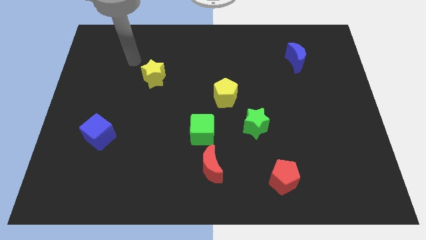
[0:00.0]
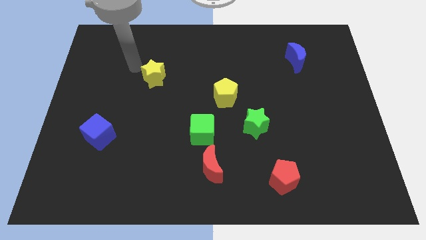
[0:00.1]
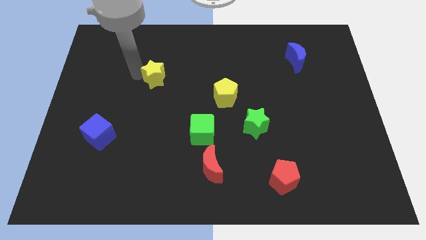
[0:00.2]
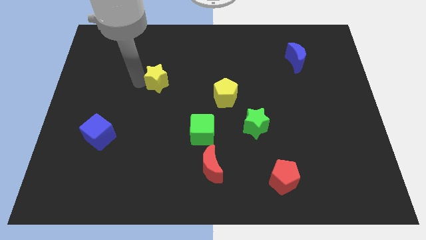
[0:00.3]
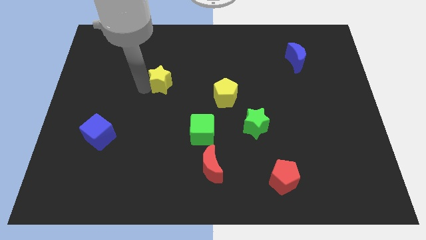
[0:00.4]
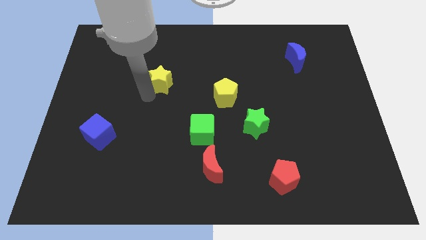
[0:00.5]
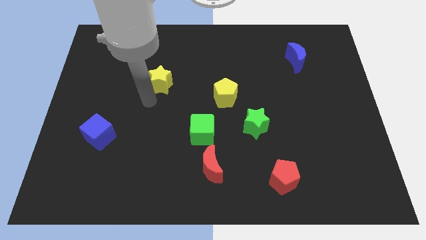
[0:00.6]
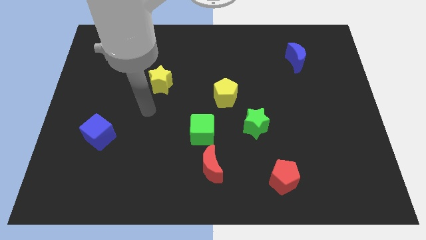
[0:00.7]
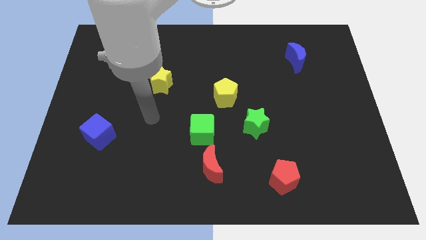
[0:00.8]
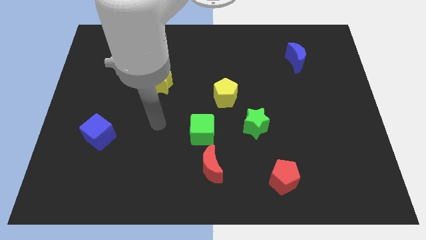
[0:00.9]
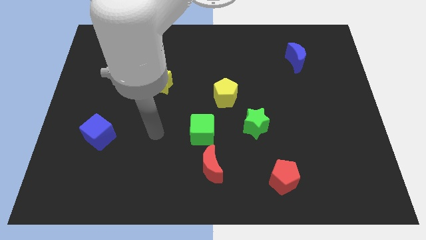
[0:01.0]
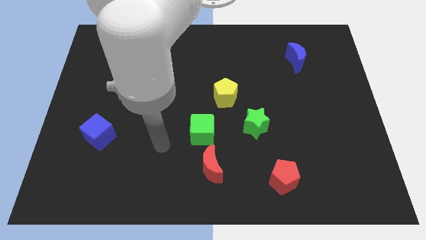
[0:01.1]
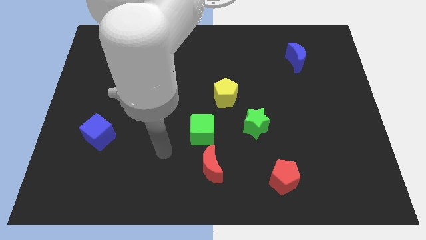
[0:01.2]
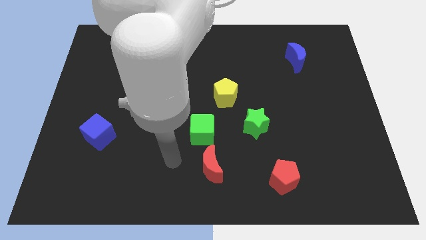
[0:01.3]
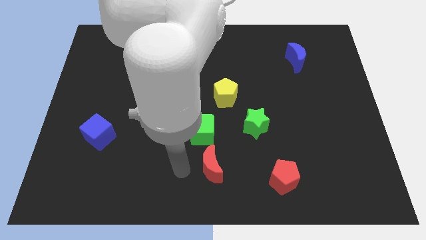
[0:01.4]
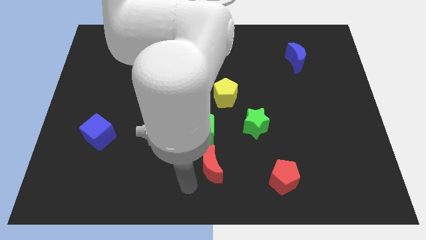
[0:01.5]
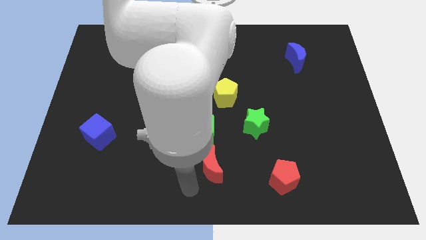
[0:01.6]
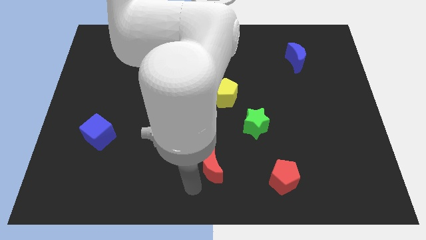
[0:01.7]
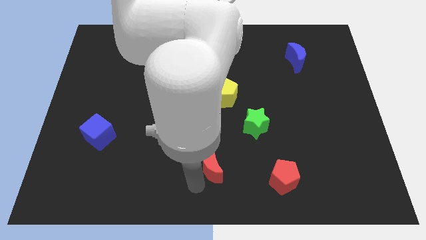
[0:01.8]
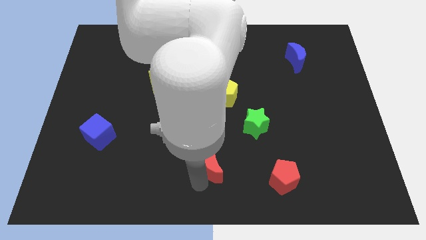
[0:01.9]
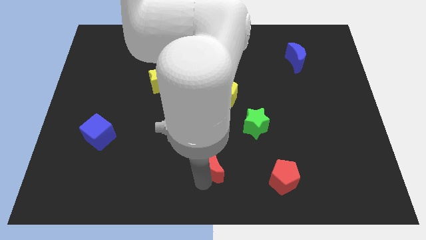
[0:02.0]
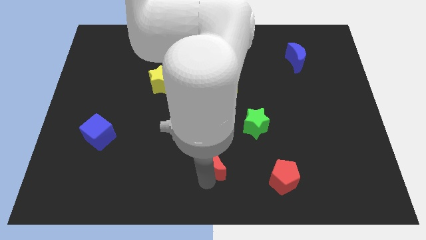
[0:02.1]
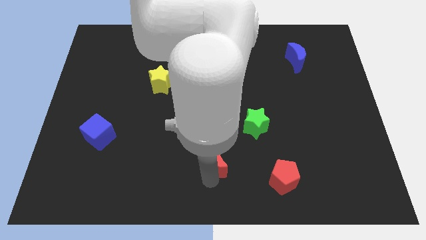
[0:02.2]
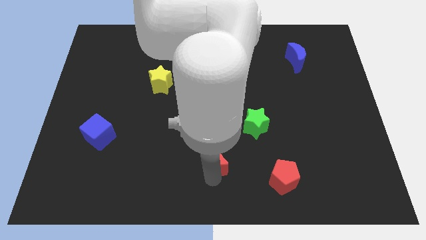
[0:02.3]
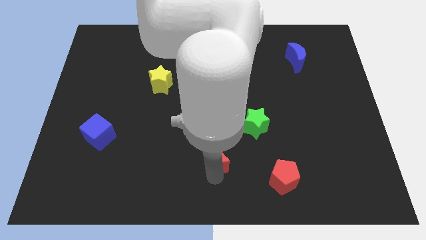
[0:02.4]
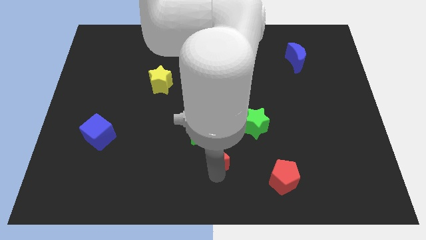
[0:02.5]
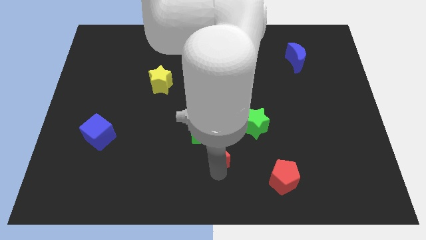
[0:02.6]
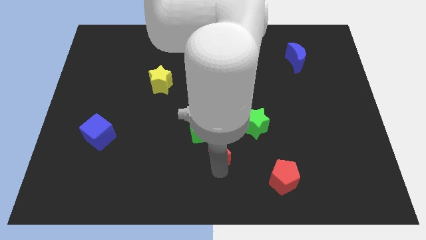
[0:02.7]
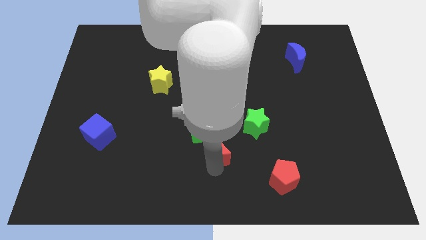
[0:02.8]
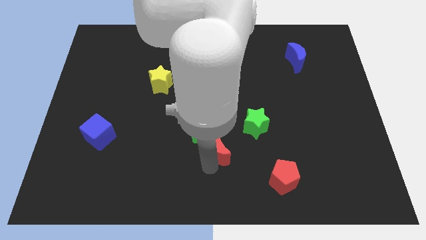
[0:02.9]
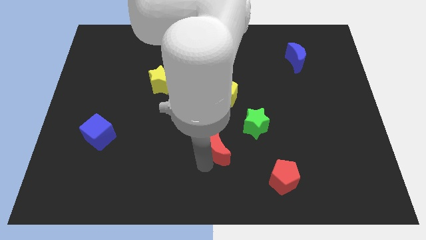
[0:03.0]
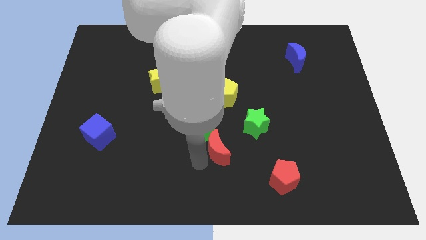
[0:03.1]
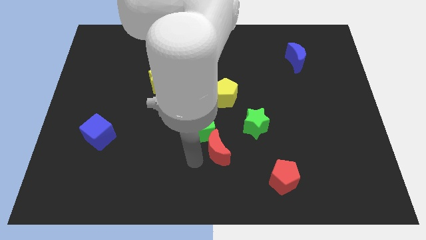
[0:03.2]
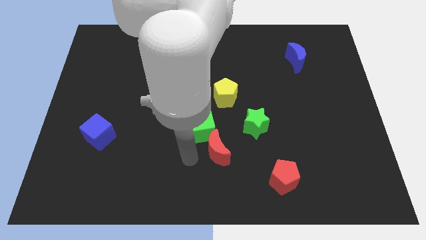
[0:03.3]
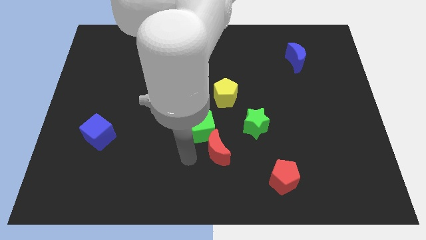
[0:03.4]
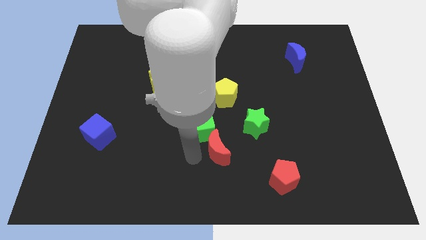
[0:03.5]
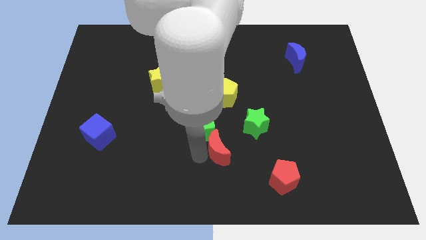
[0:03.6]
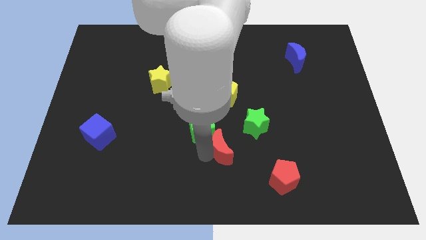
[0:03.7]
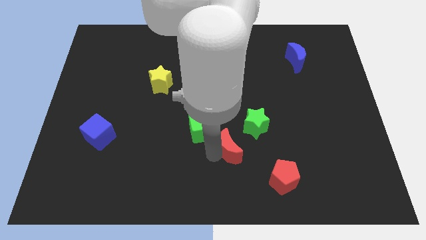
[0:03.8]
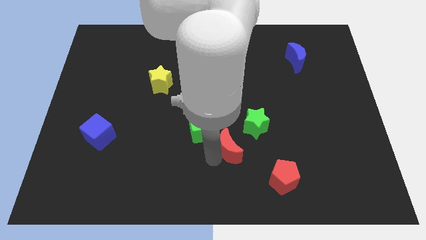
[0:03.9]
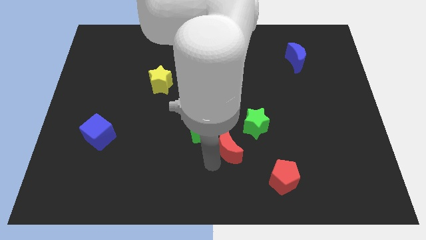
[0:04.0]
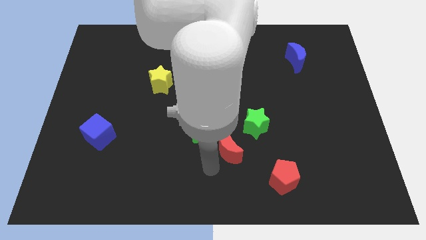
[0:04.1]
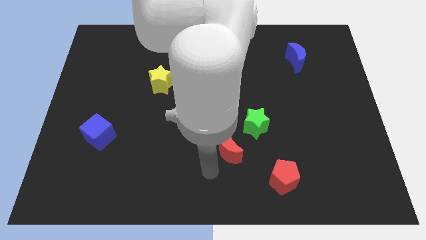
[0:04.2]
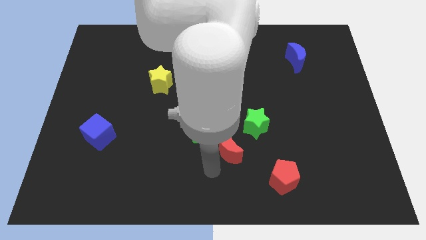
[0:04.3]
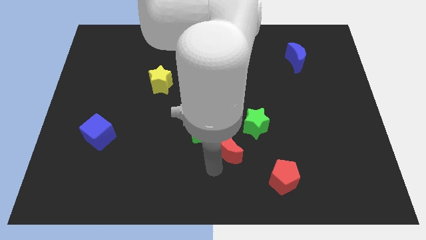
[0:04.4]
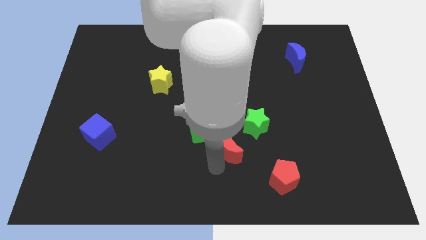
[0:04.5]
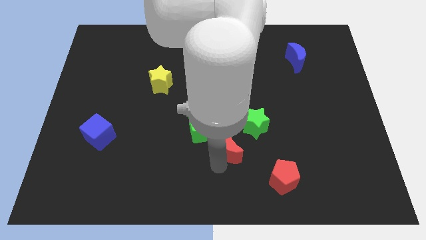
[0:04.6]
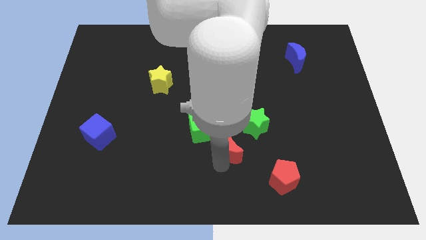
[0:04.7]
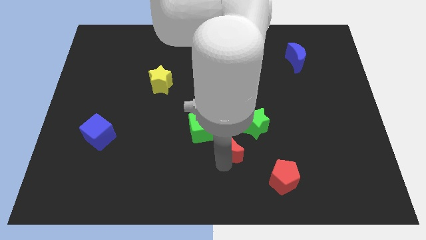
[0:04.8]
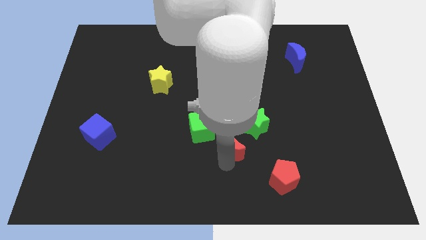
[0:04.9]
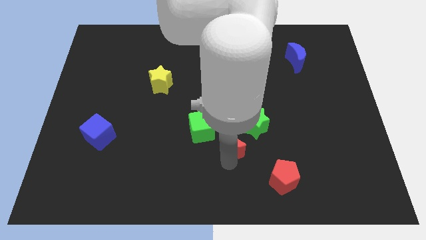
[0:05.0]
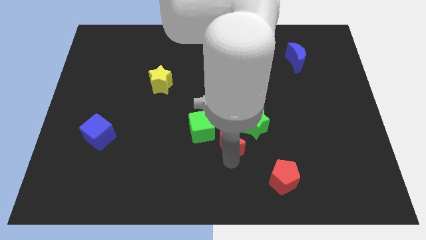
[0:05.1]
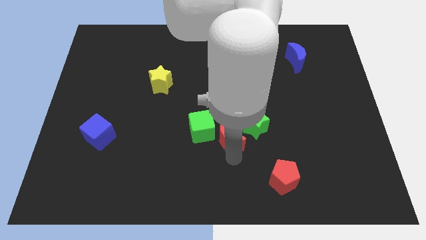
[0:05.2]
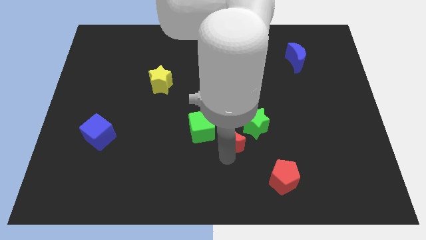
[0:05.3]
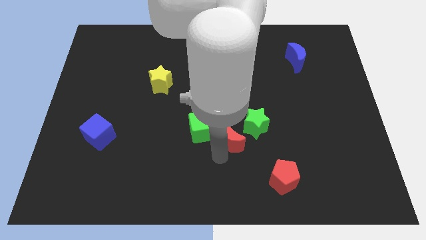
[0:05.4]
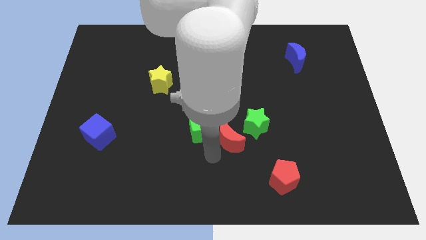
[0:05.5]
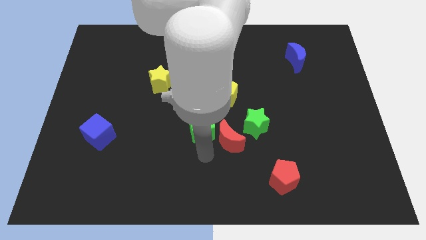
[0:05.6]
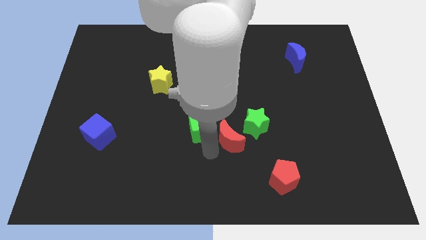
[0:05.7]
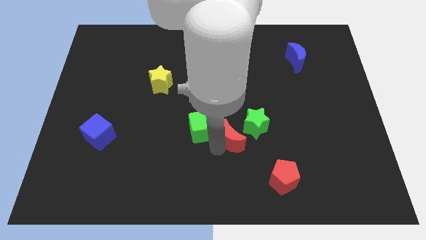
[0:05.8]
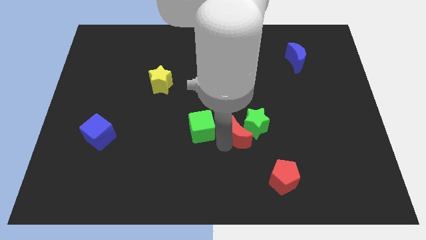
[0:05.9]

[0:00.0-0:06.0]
put the red moon close to the green star

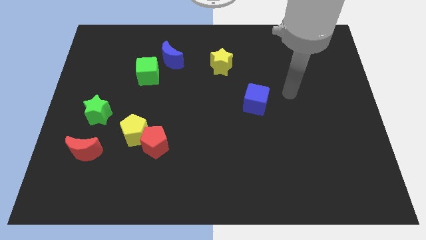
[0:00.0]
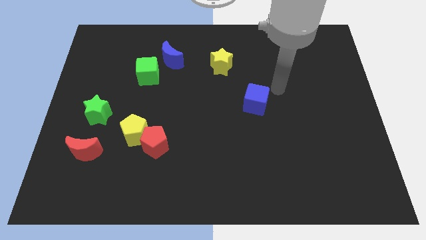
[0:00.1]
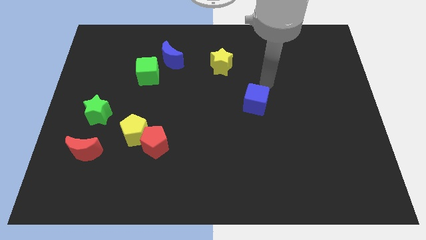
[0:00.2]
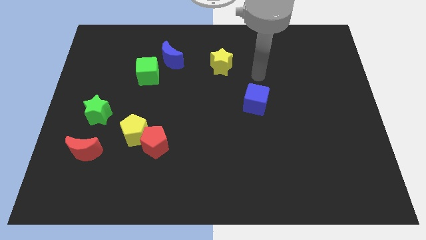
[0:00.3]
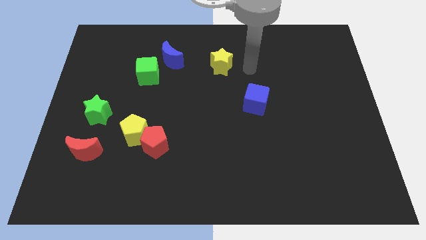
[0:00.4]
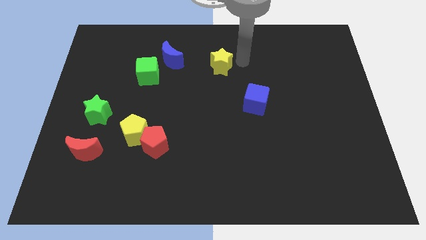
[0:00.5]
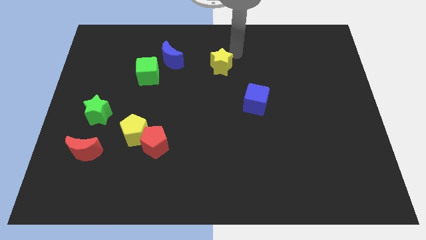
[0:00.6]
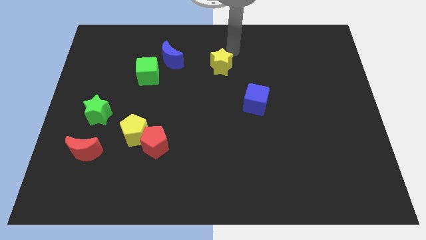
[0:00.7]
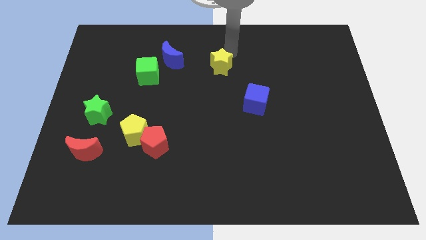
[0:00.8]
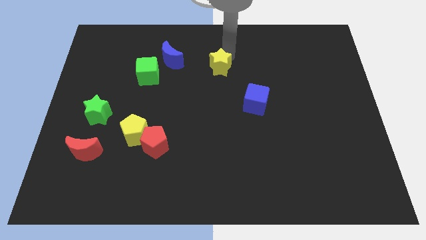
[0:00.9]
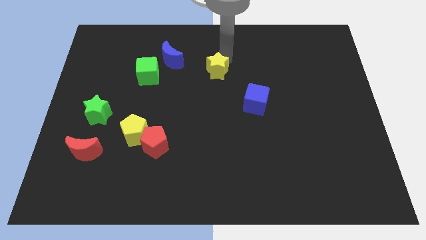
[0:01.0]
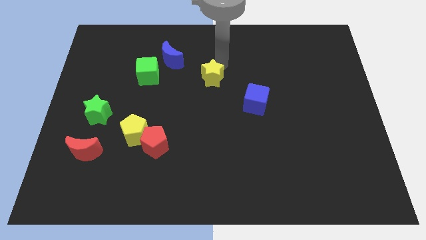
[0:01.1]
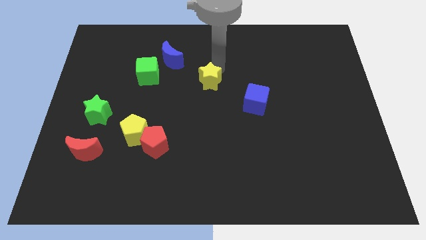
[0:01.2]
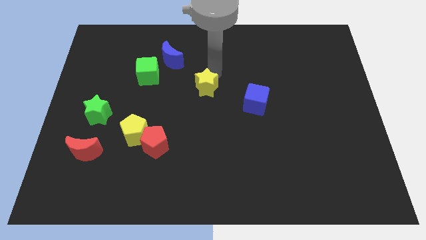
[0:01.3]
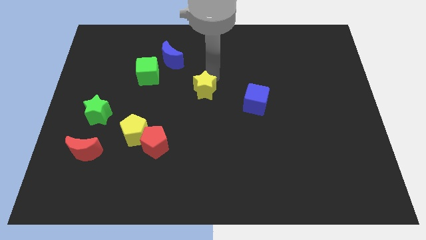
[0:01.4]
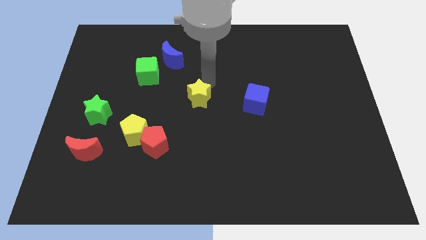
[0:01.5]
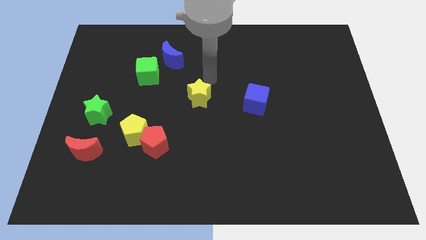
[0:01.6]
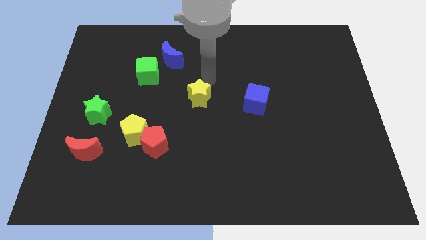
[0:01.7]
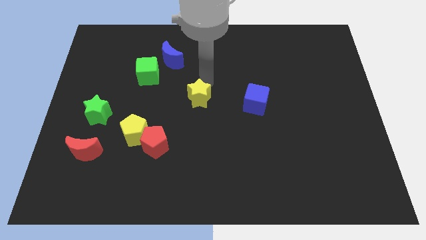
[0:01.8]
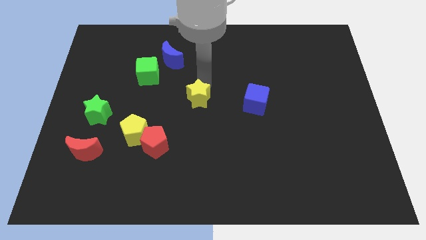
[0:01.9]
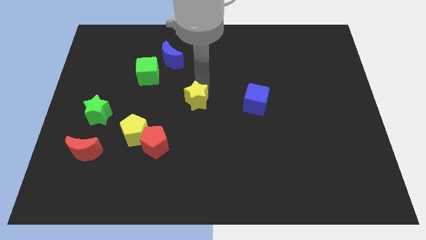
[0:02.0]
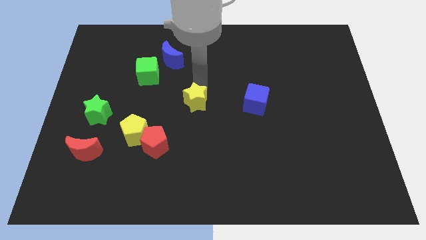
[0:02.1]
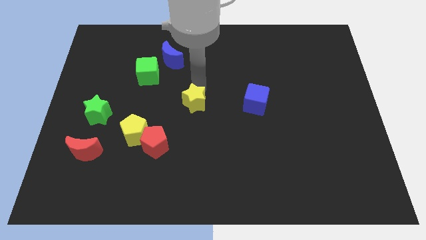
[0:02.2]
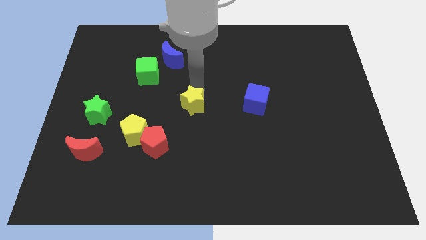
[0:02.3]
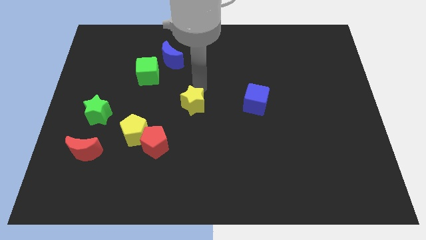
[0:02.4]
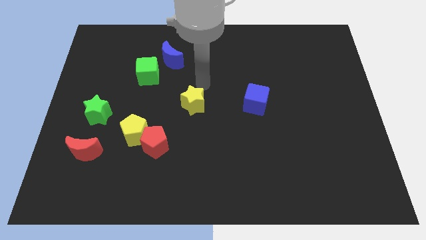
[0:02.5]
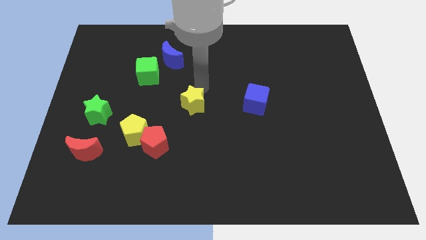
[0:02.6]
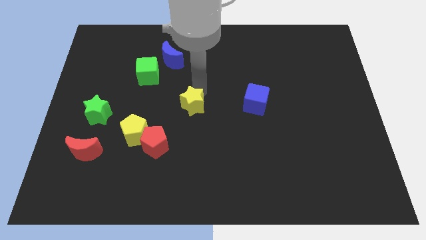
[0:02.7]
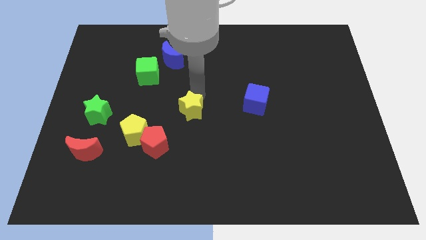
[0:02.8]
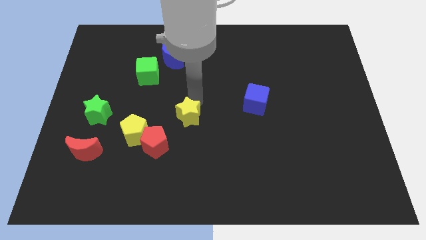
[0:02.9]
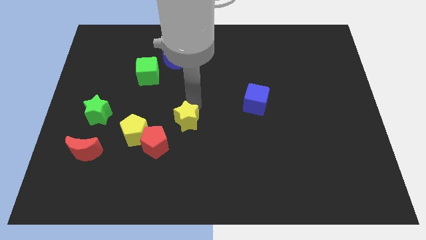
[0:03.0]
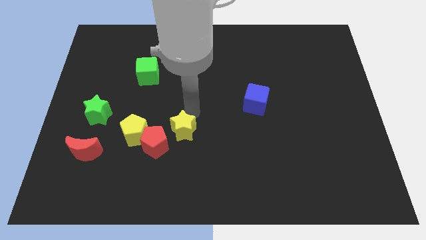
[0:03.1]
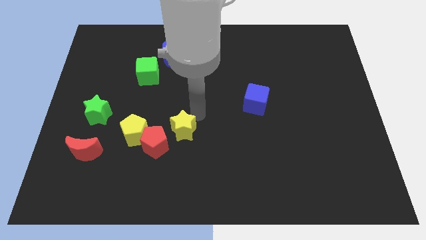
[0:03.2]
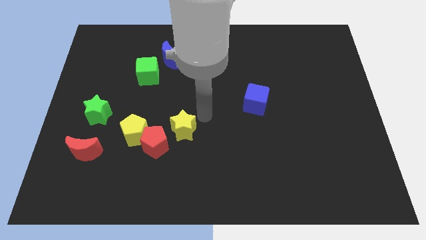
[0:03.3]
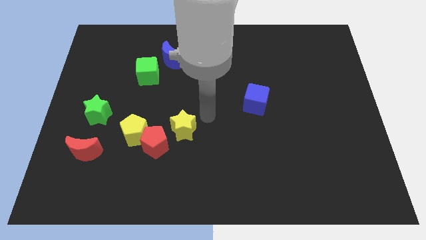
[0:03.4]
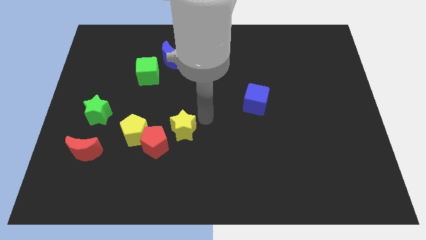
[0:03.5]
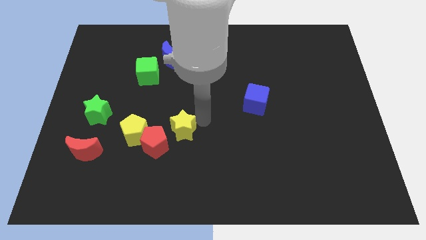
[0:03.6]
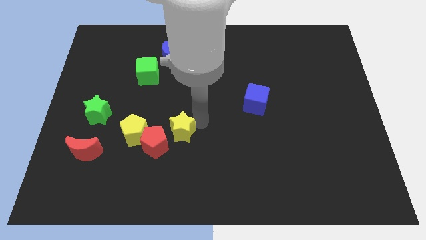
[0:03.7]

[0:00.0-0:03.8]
move the yellow star close to the red pentagon
